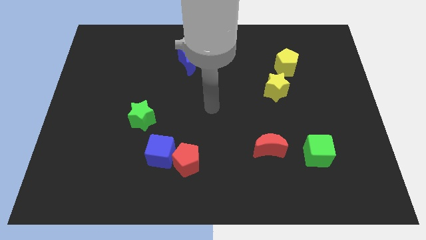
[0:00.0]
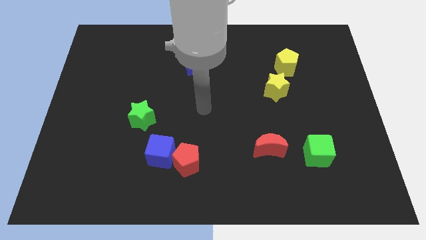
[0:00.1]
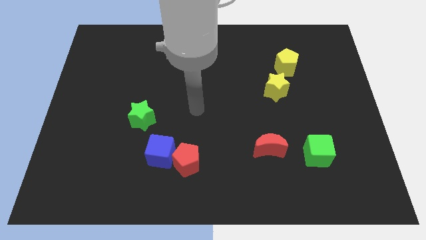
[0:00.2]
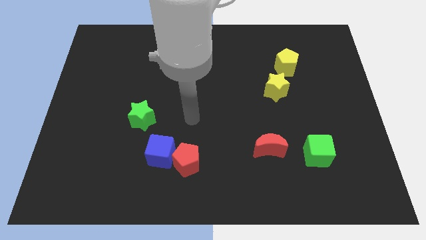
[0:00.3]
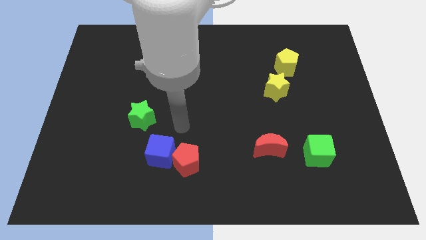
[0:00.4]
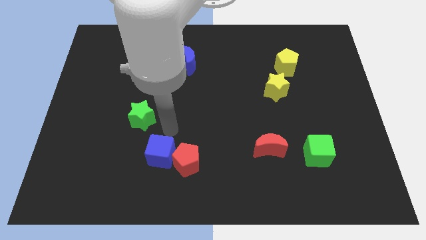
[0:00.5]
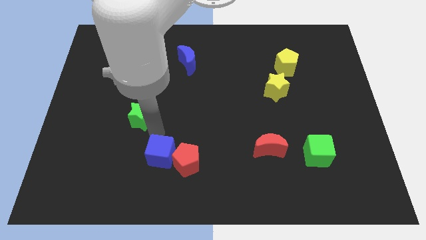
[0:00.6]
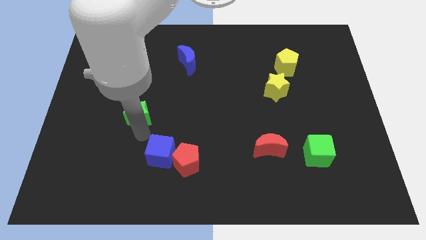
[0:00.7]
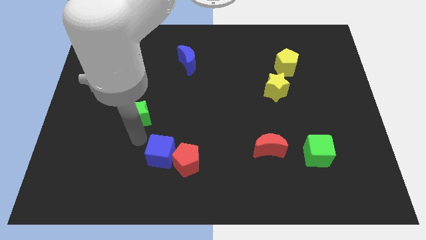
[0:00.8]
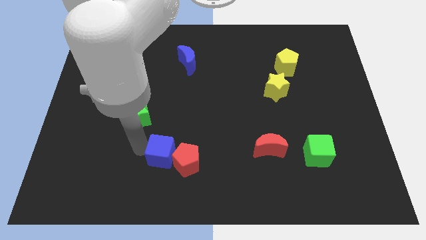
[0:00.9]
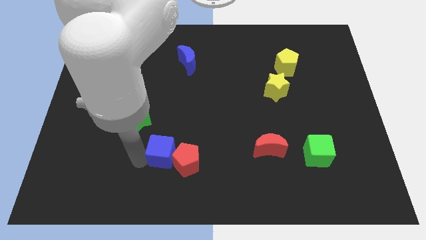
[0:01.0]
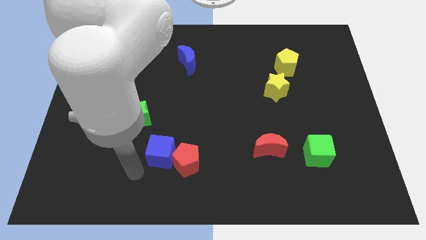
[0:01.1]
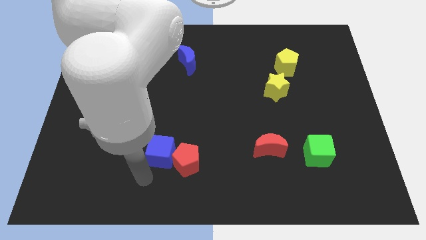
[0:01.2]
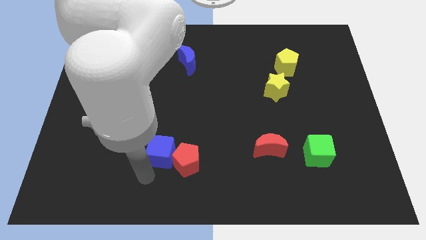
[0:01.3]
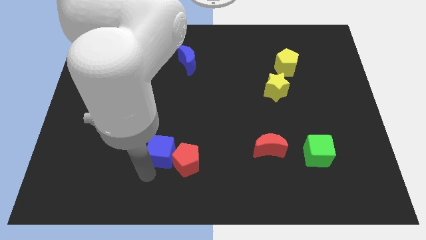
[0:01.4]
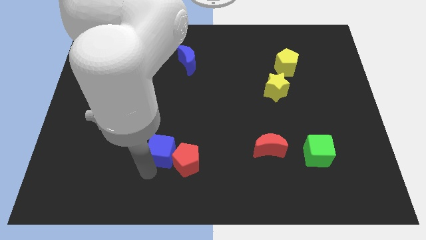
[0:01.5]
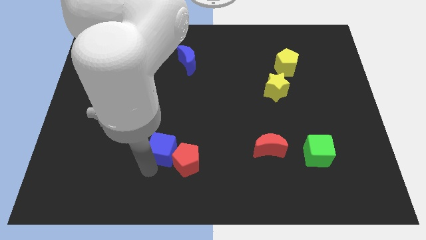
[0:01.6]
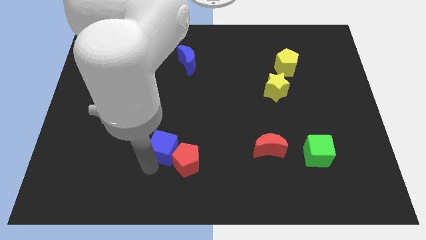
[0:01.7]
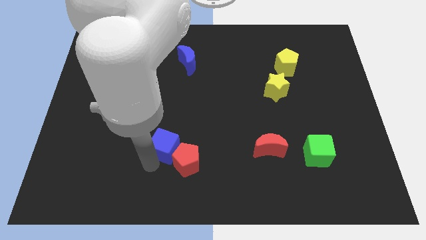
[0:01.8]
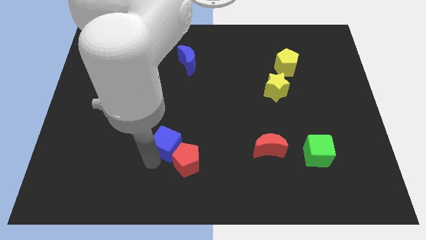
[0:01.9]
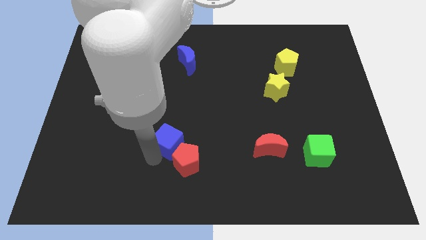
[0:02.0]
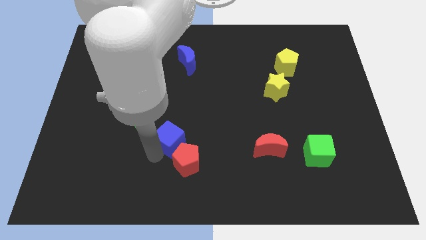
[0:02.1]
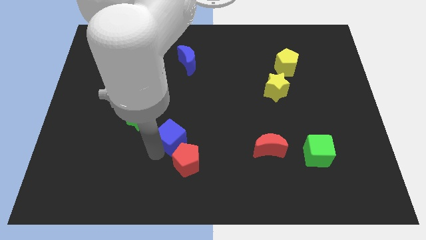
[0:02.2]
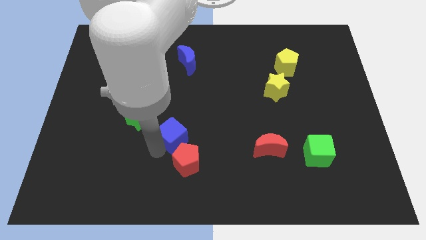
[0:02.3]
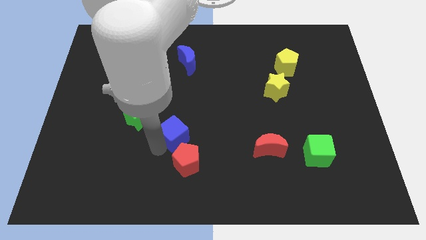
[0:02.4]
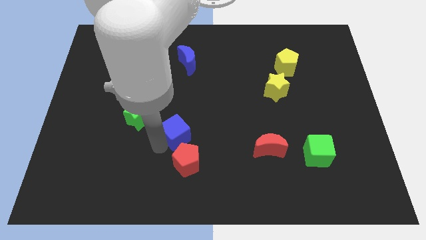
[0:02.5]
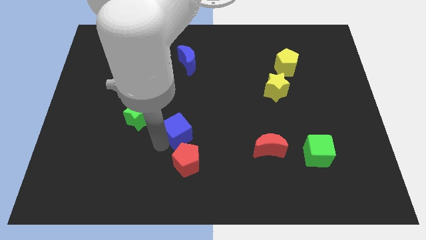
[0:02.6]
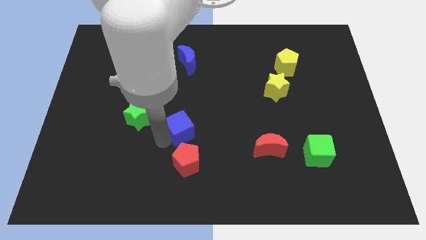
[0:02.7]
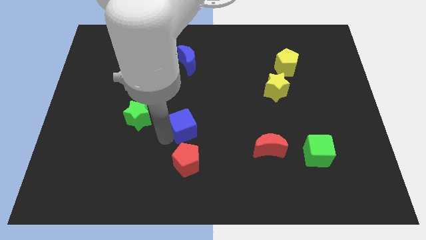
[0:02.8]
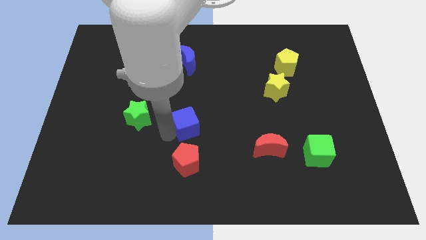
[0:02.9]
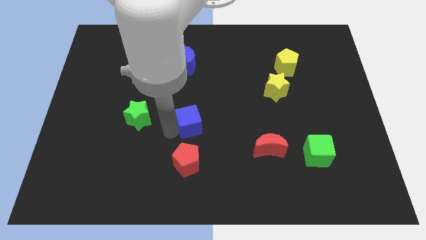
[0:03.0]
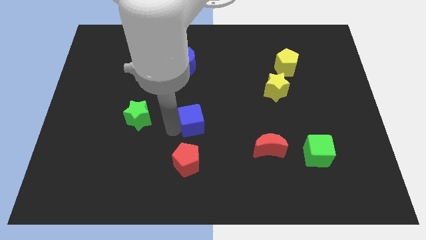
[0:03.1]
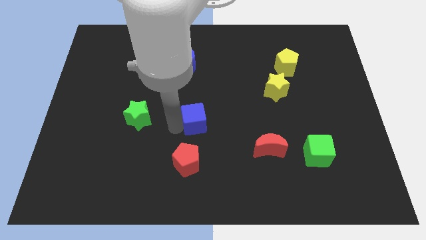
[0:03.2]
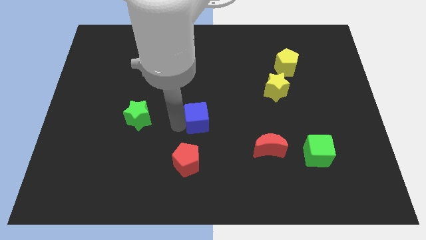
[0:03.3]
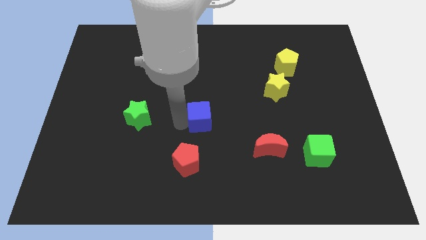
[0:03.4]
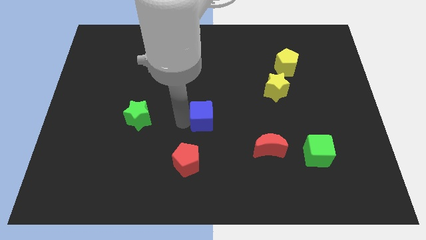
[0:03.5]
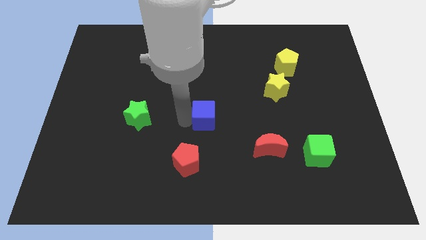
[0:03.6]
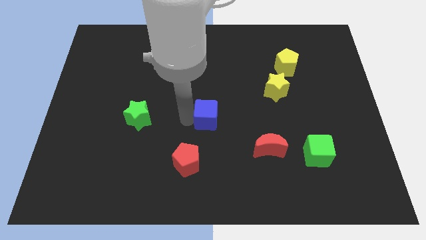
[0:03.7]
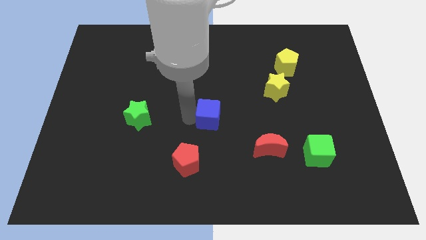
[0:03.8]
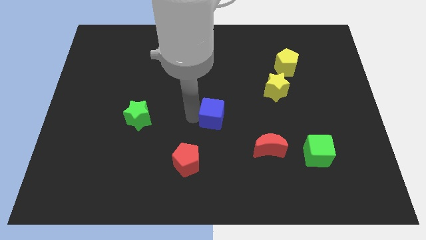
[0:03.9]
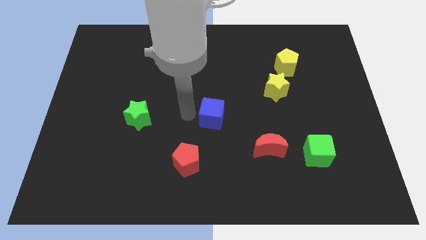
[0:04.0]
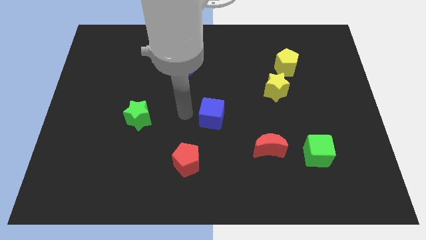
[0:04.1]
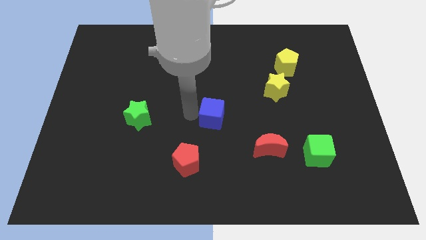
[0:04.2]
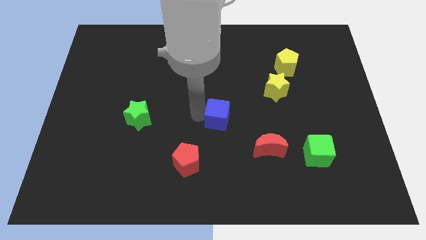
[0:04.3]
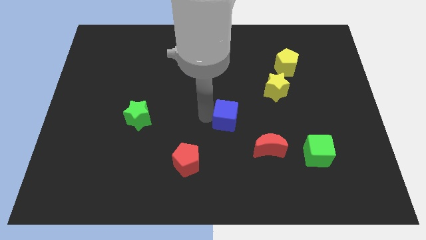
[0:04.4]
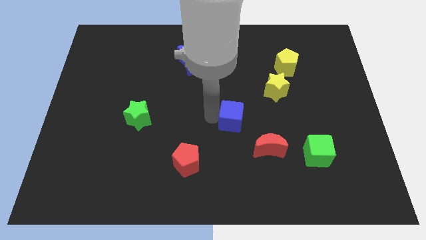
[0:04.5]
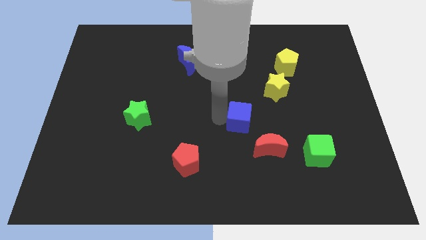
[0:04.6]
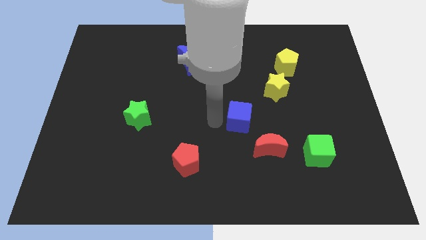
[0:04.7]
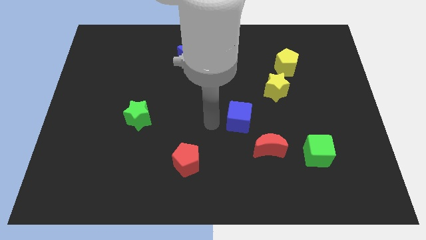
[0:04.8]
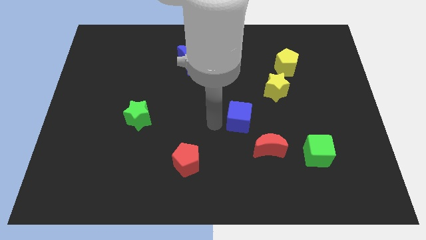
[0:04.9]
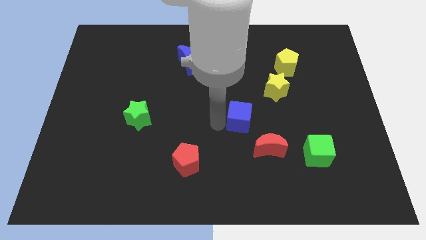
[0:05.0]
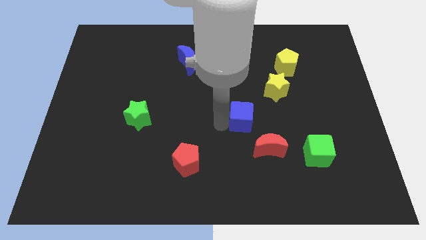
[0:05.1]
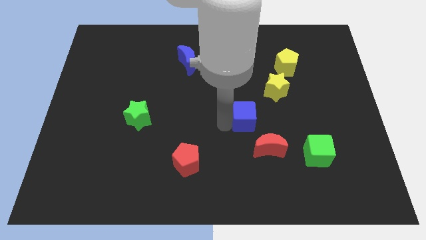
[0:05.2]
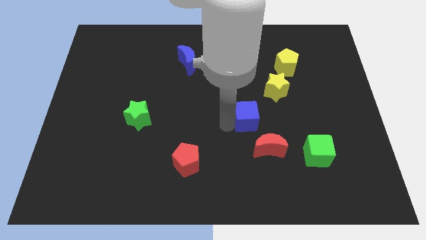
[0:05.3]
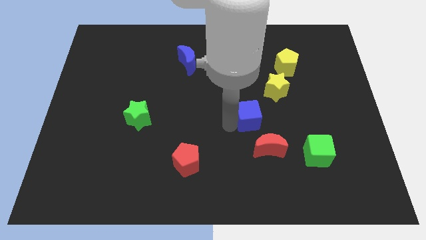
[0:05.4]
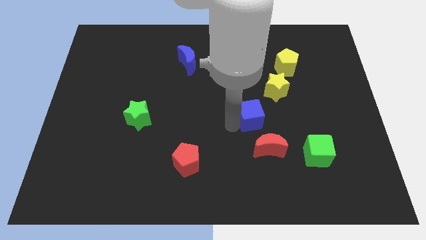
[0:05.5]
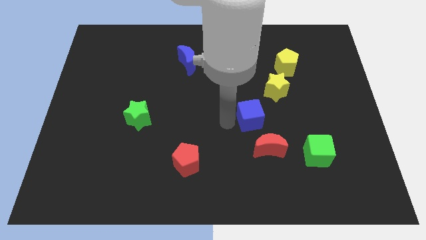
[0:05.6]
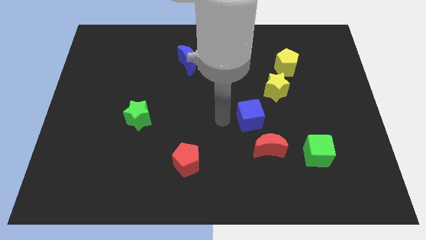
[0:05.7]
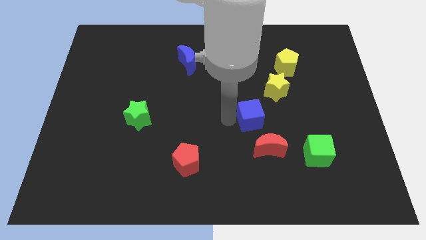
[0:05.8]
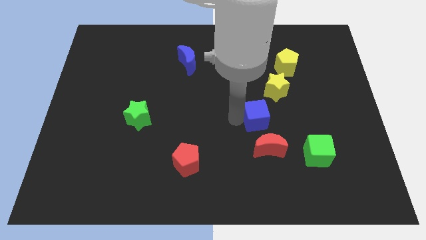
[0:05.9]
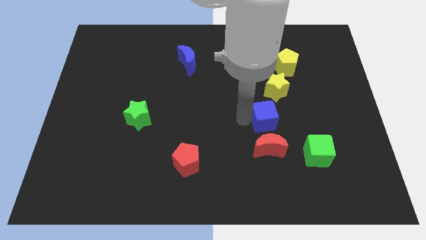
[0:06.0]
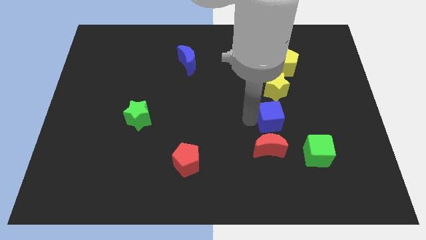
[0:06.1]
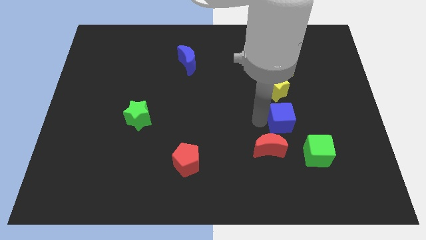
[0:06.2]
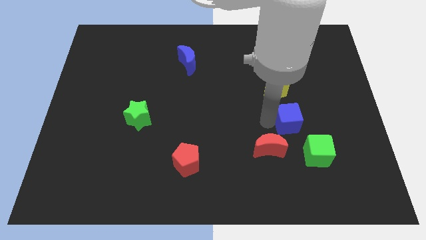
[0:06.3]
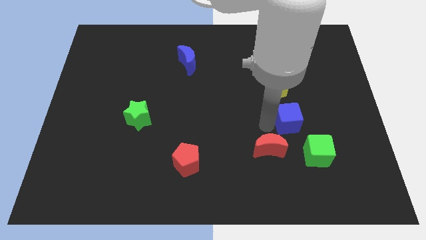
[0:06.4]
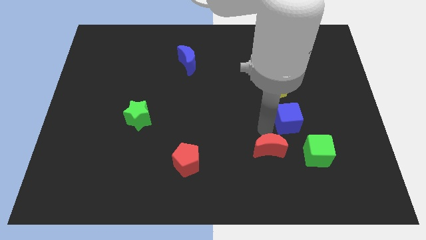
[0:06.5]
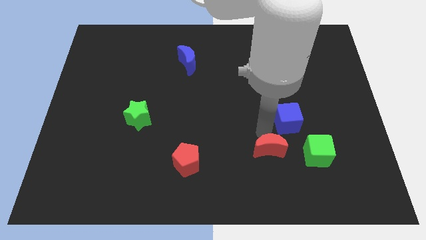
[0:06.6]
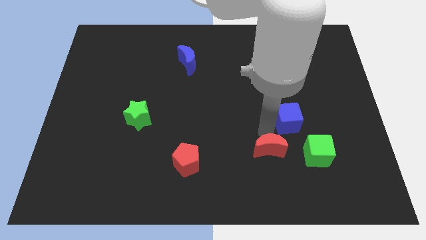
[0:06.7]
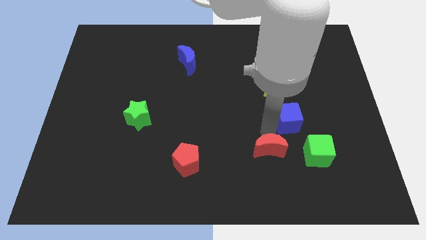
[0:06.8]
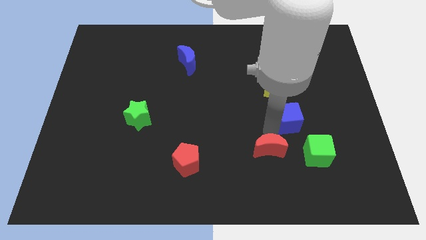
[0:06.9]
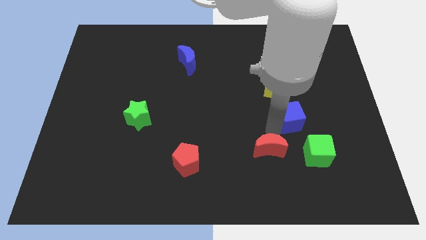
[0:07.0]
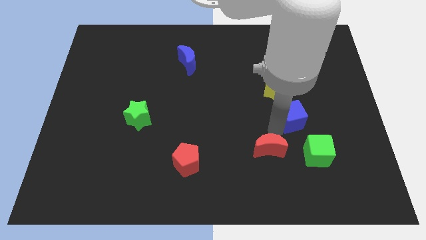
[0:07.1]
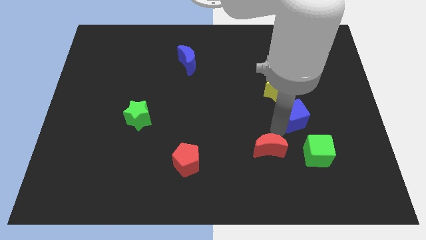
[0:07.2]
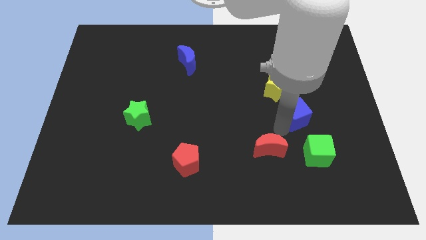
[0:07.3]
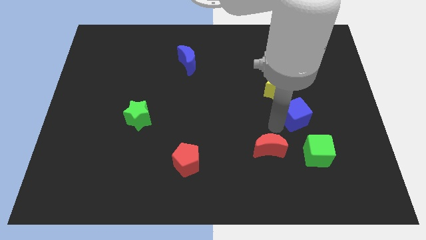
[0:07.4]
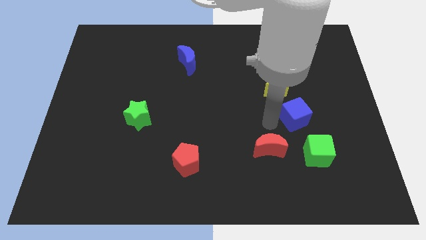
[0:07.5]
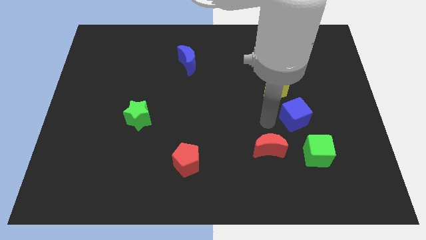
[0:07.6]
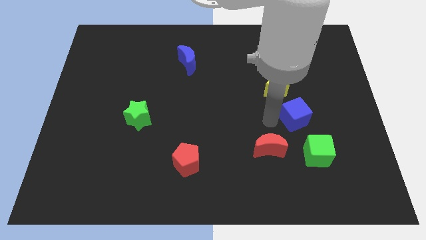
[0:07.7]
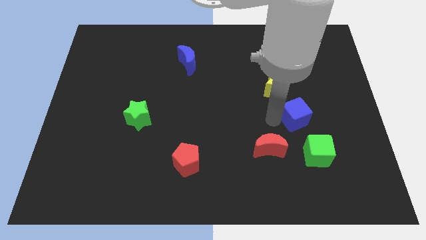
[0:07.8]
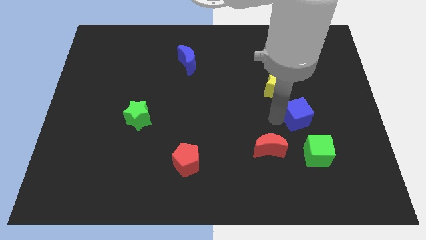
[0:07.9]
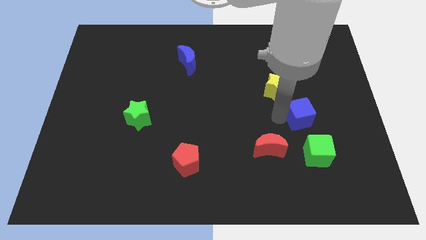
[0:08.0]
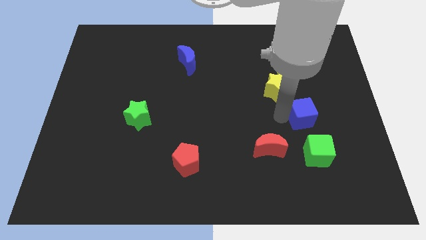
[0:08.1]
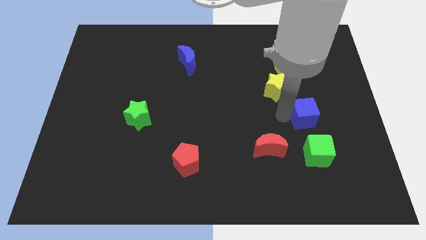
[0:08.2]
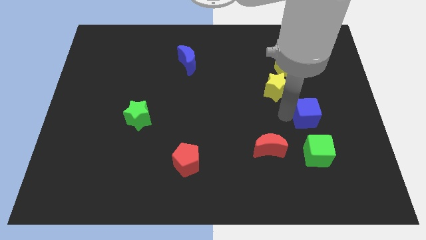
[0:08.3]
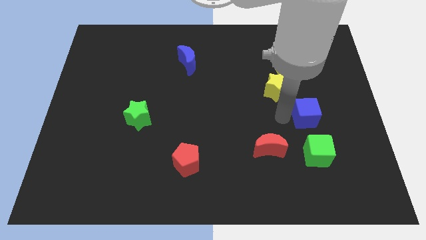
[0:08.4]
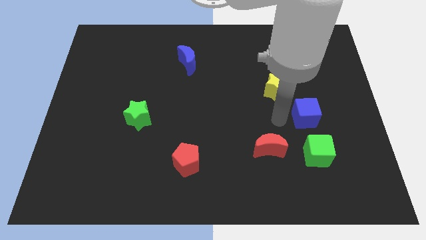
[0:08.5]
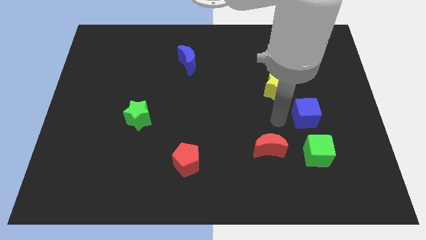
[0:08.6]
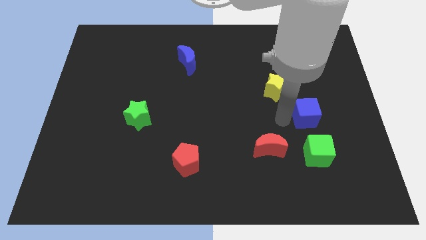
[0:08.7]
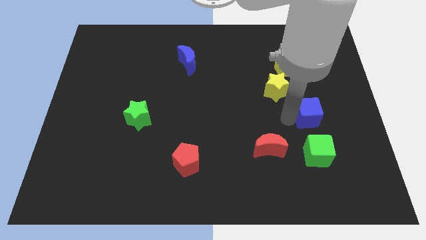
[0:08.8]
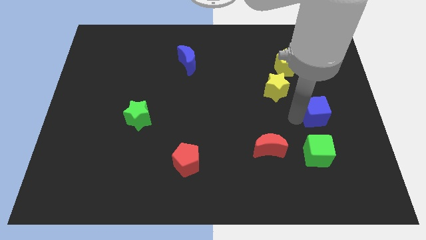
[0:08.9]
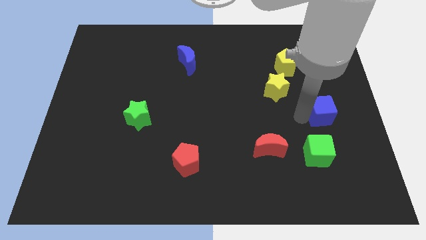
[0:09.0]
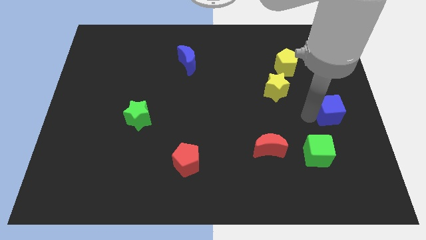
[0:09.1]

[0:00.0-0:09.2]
move the blue cube to the right side of the board
